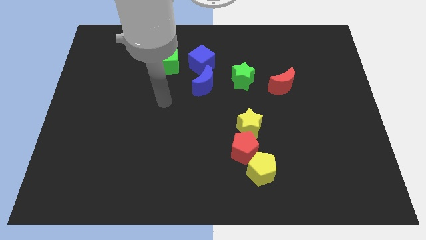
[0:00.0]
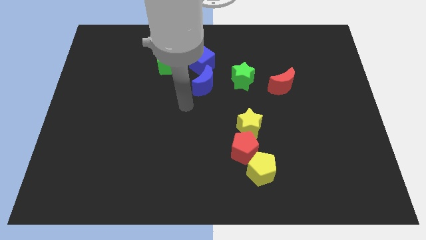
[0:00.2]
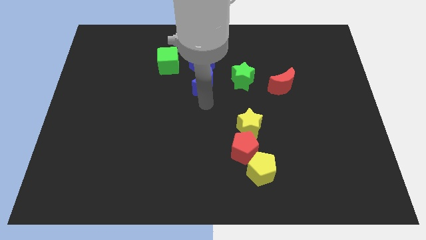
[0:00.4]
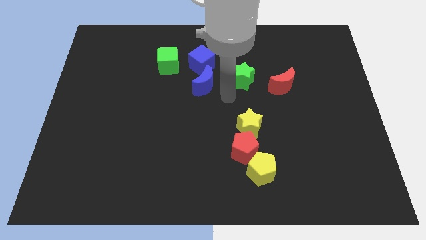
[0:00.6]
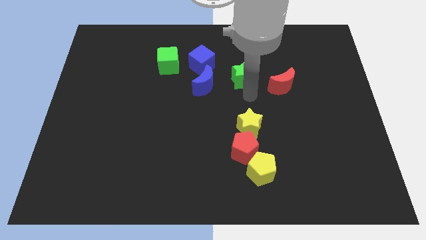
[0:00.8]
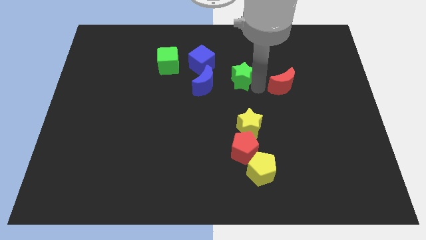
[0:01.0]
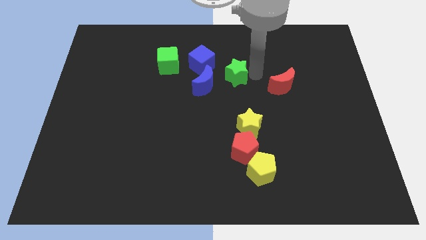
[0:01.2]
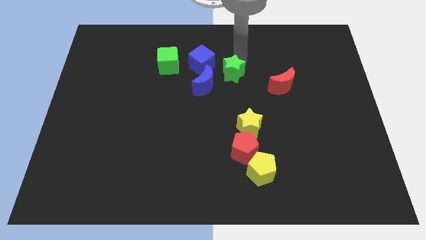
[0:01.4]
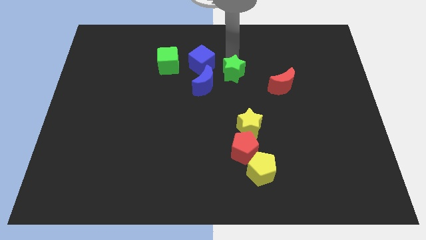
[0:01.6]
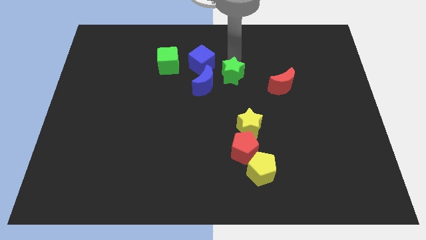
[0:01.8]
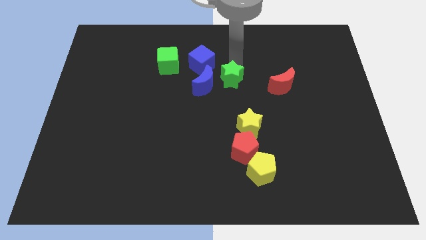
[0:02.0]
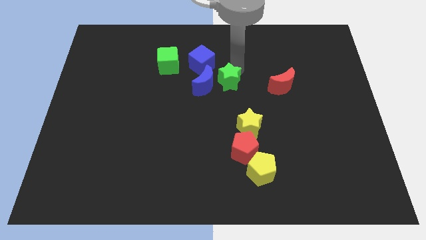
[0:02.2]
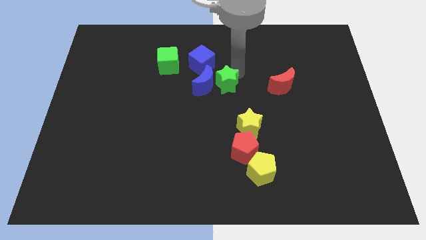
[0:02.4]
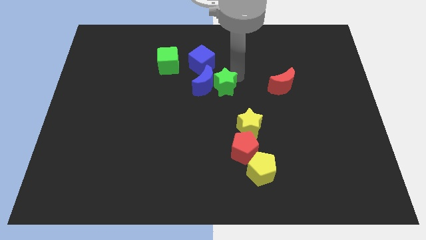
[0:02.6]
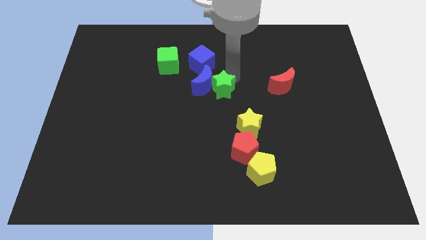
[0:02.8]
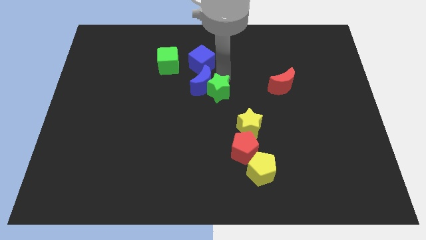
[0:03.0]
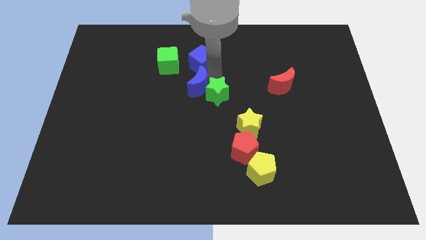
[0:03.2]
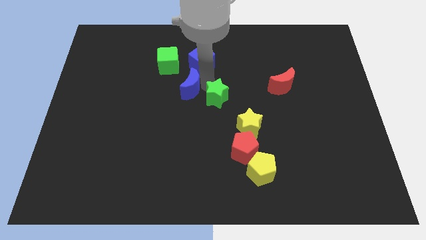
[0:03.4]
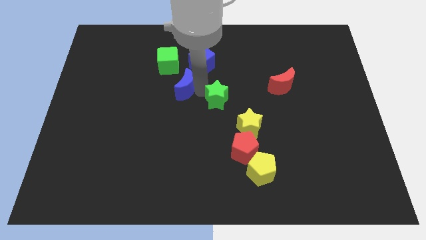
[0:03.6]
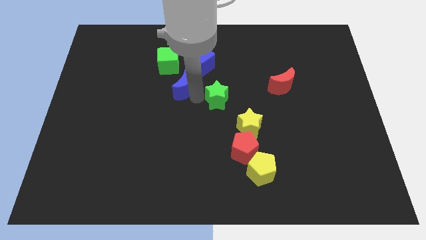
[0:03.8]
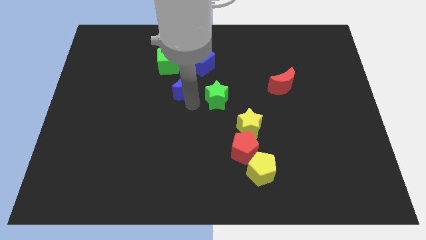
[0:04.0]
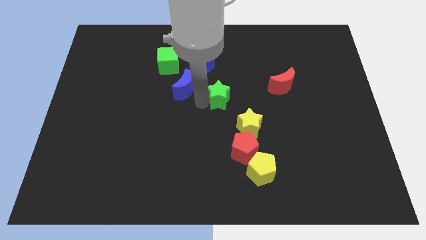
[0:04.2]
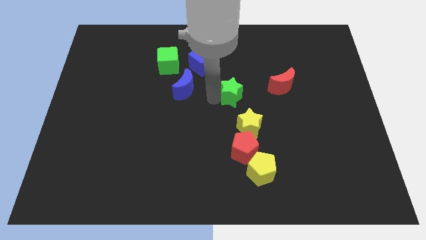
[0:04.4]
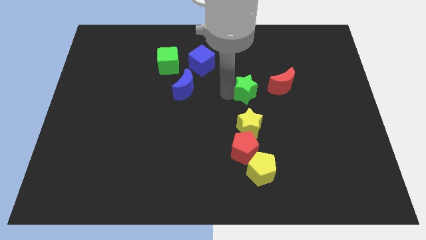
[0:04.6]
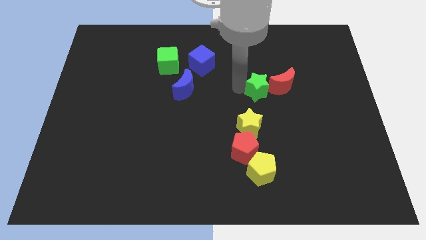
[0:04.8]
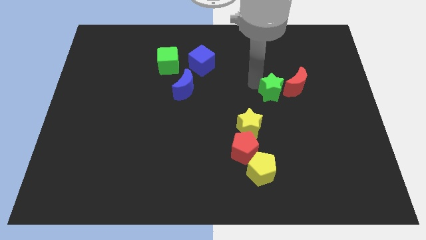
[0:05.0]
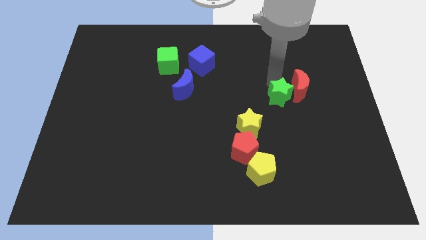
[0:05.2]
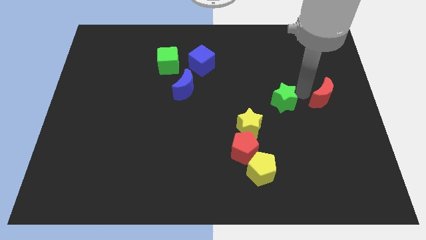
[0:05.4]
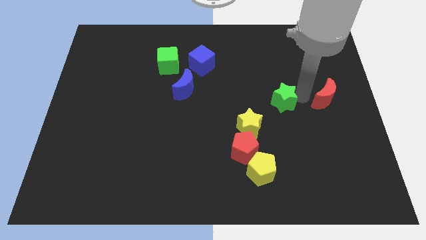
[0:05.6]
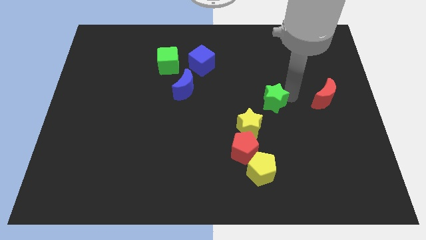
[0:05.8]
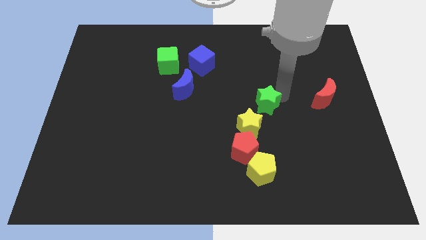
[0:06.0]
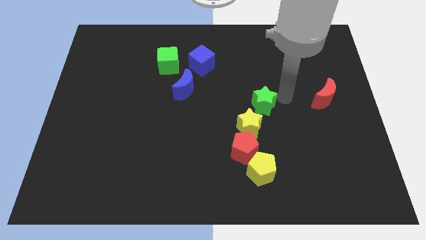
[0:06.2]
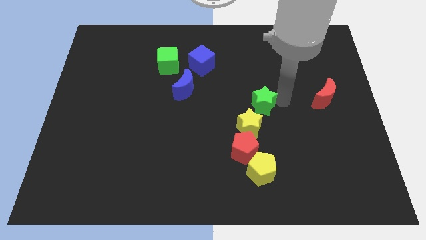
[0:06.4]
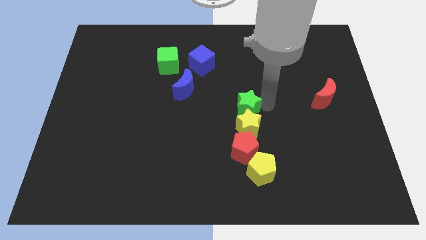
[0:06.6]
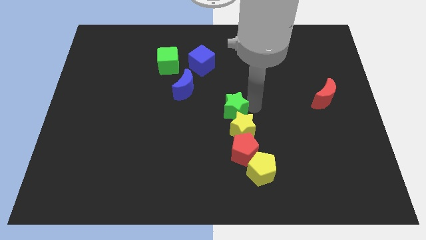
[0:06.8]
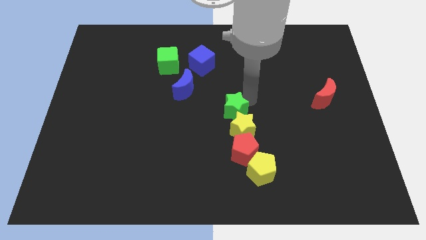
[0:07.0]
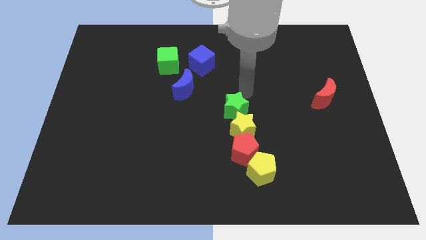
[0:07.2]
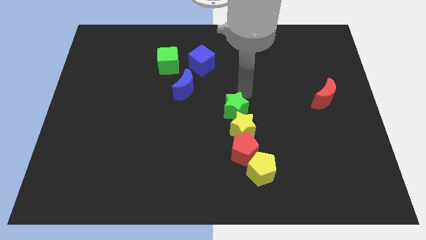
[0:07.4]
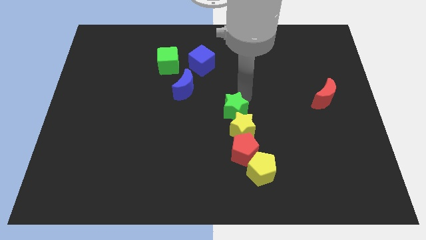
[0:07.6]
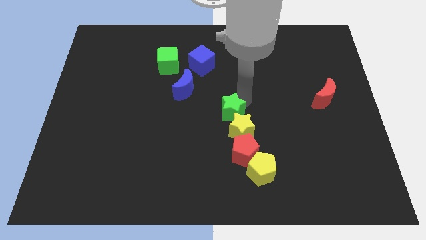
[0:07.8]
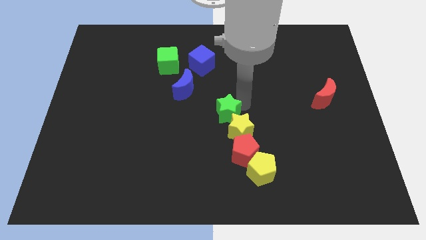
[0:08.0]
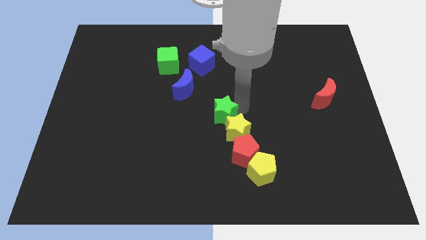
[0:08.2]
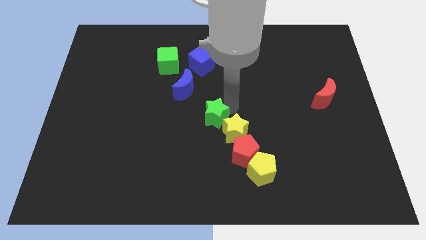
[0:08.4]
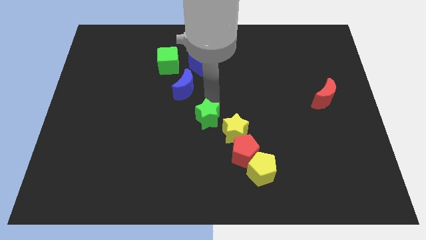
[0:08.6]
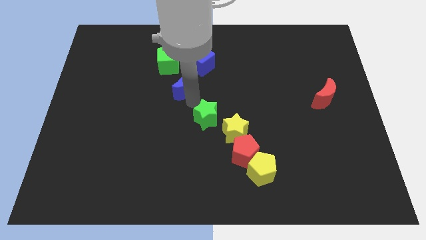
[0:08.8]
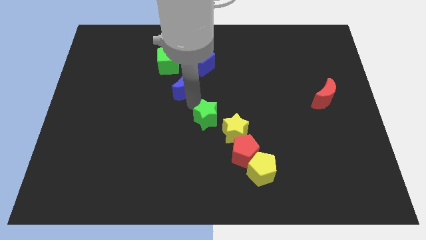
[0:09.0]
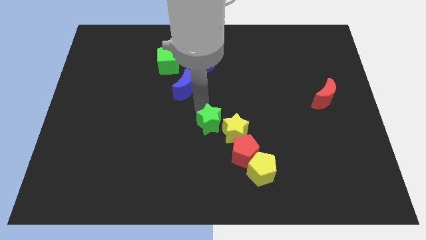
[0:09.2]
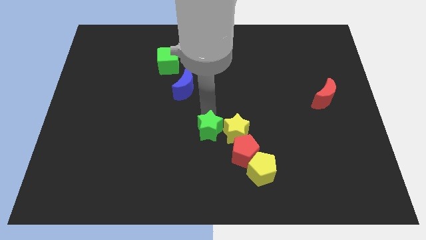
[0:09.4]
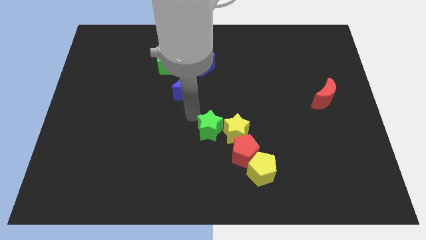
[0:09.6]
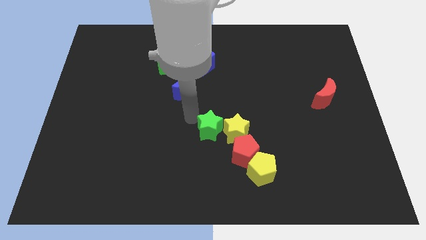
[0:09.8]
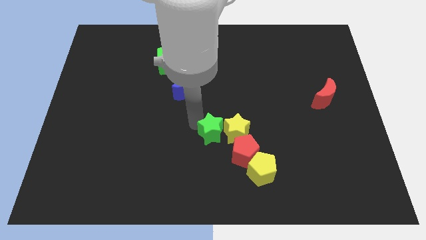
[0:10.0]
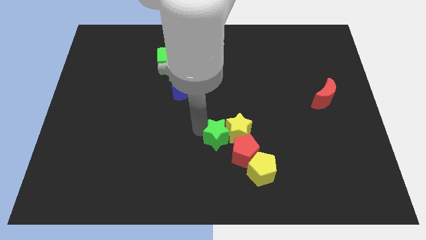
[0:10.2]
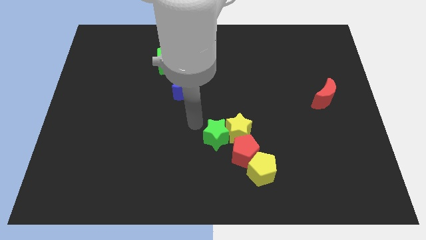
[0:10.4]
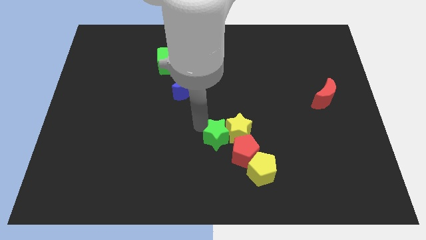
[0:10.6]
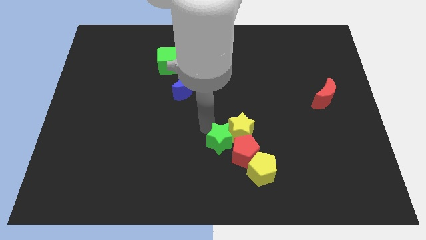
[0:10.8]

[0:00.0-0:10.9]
push the green star towards the red pentagon

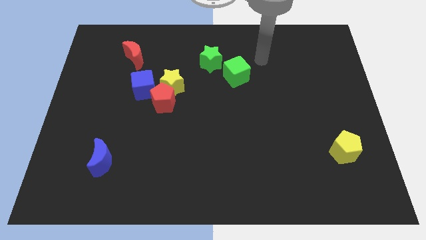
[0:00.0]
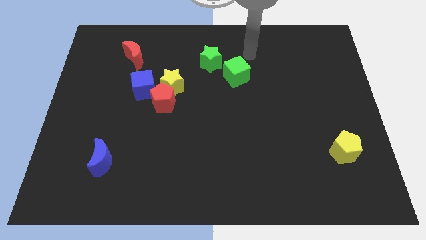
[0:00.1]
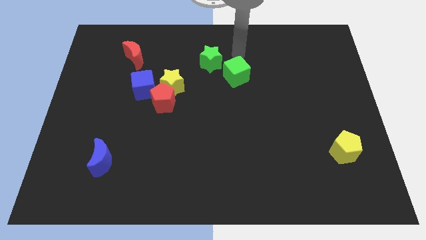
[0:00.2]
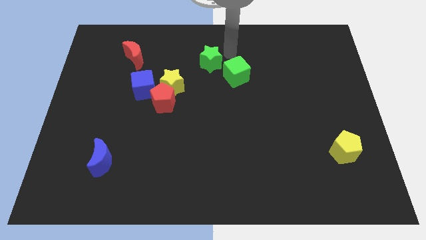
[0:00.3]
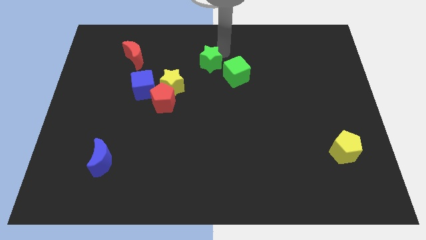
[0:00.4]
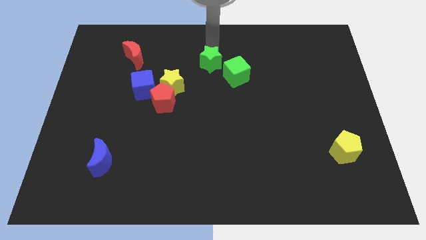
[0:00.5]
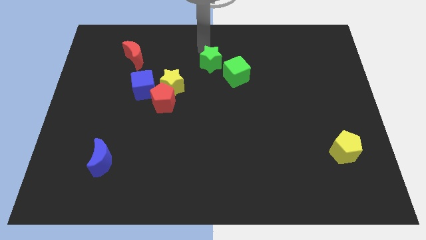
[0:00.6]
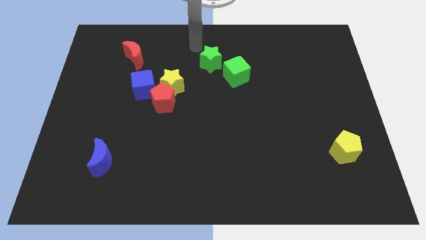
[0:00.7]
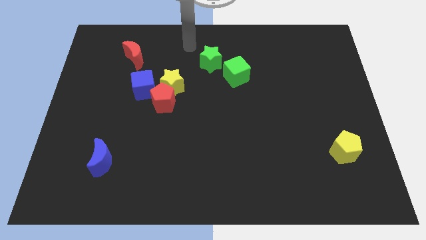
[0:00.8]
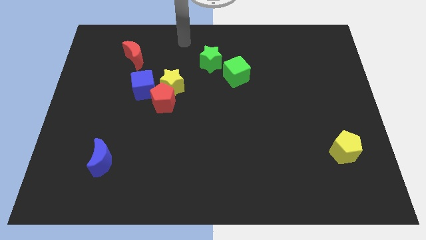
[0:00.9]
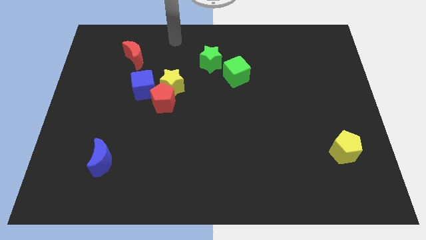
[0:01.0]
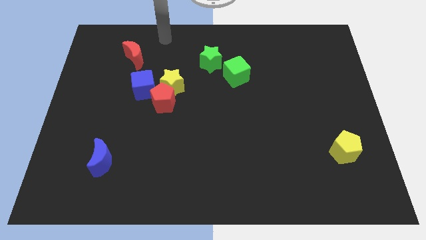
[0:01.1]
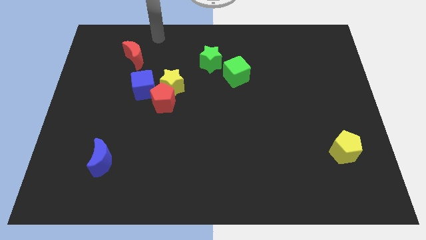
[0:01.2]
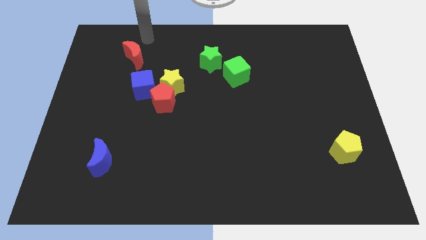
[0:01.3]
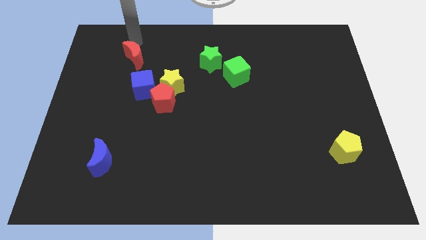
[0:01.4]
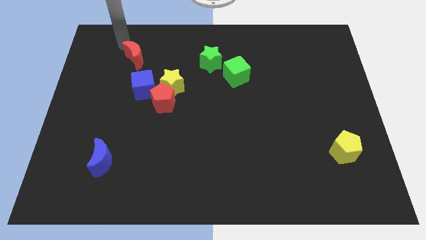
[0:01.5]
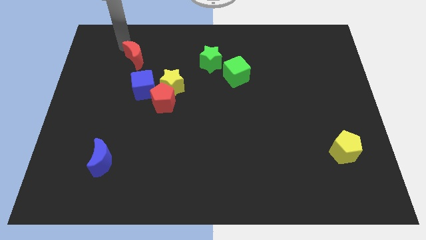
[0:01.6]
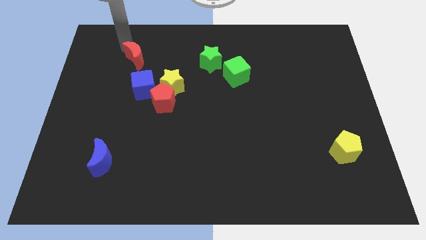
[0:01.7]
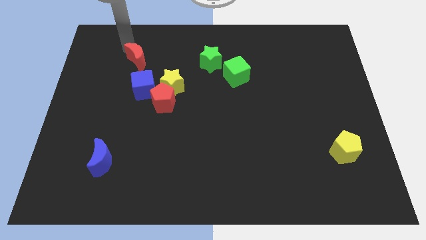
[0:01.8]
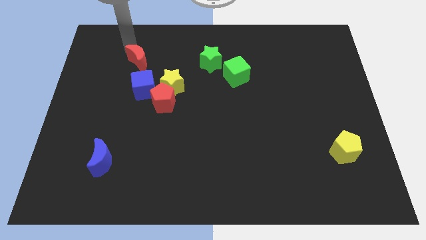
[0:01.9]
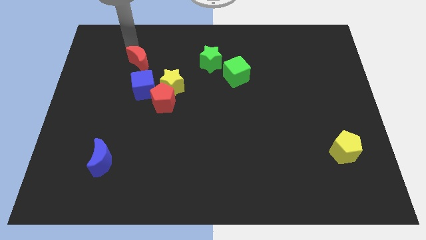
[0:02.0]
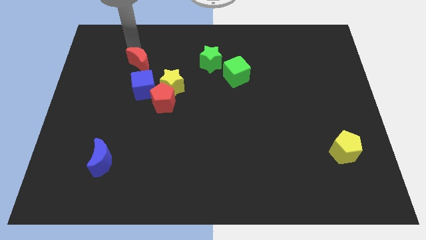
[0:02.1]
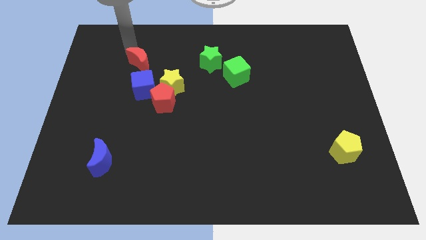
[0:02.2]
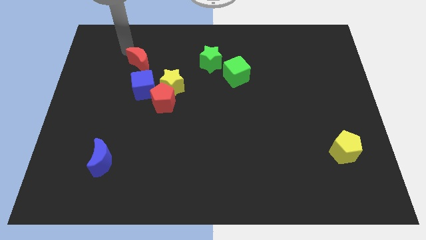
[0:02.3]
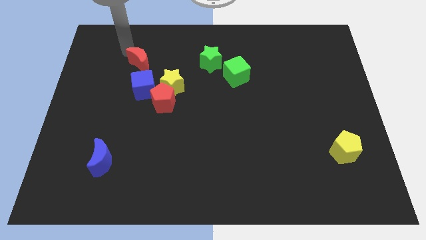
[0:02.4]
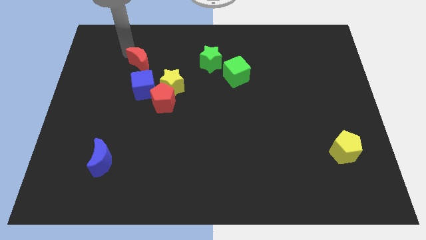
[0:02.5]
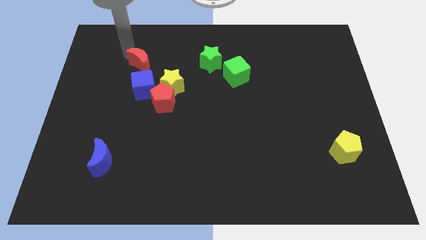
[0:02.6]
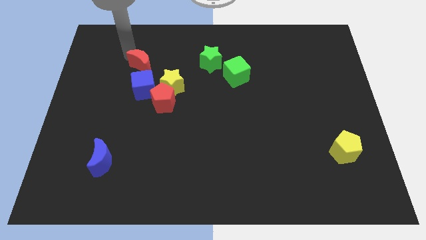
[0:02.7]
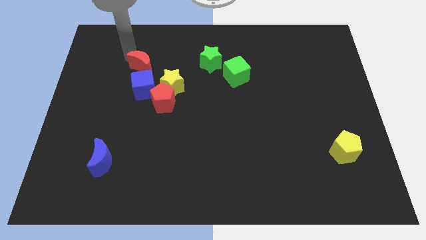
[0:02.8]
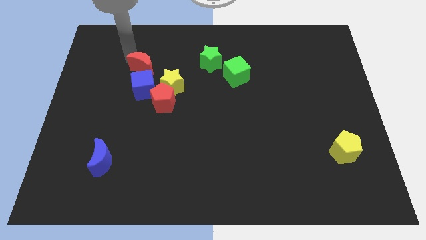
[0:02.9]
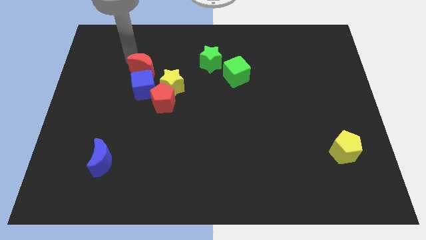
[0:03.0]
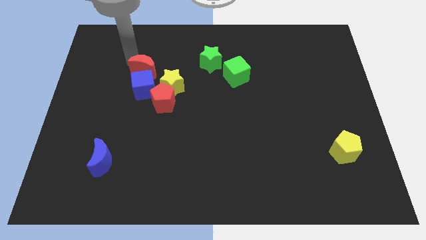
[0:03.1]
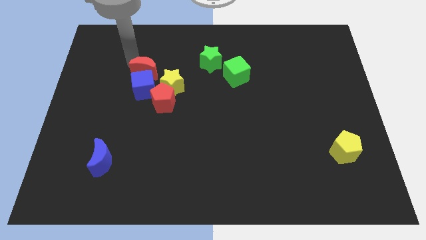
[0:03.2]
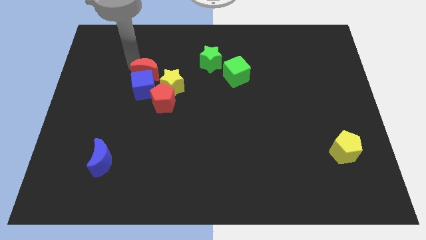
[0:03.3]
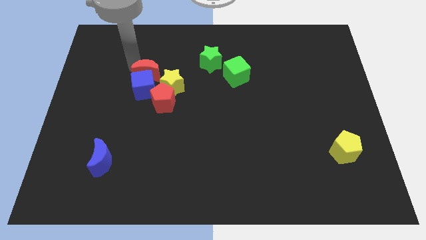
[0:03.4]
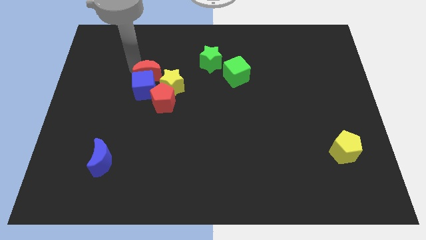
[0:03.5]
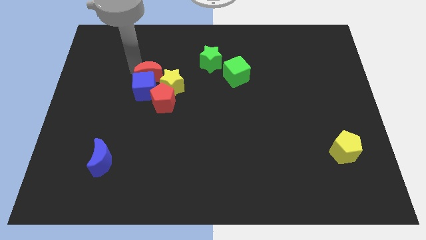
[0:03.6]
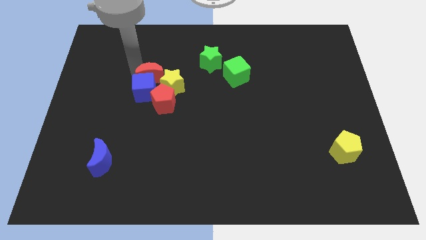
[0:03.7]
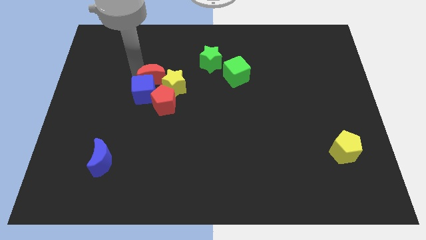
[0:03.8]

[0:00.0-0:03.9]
push the red moon next to the yellow star
